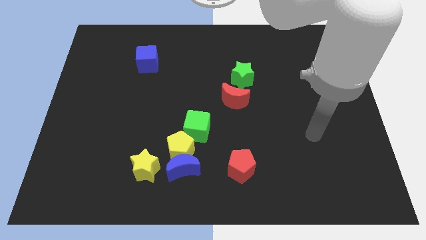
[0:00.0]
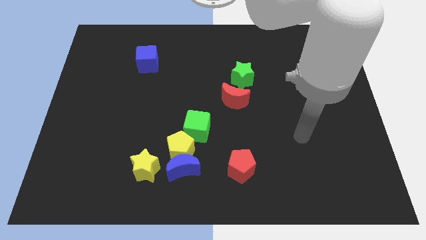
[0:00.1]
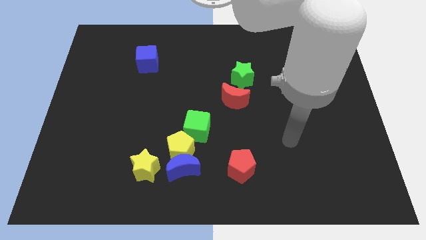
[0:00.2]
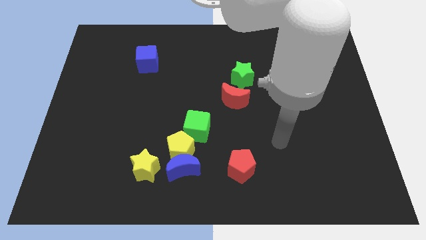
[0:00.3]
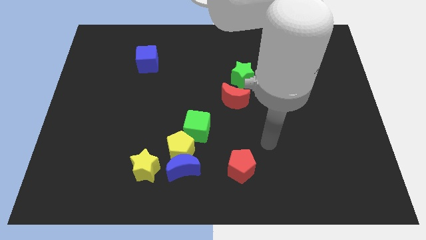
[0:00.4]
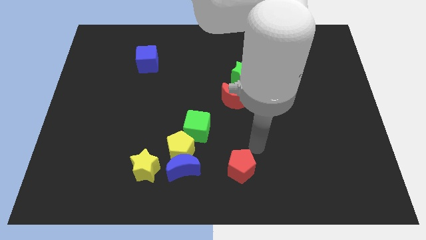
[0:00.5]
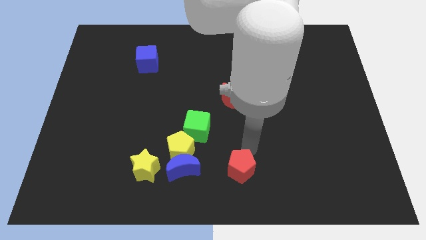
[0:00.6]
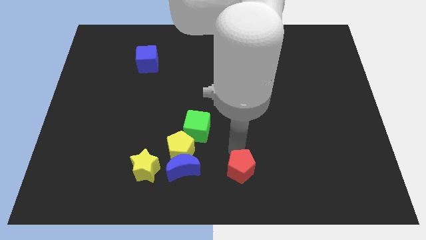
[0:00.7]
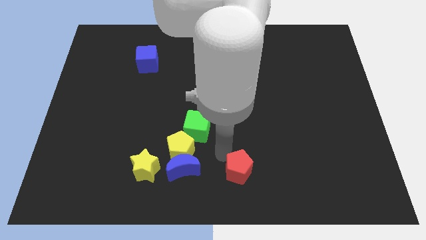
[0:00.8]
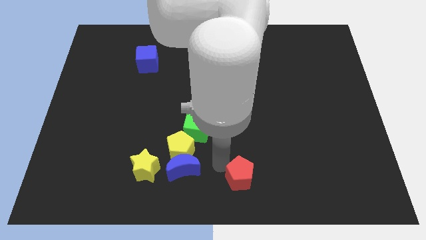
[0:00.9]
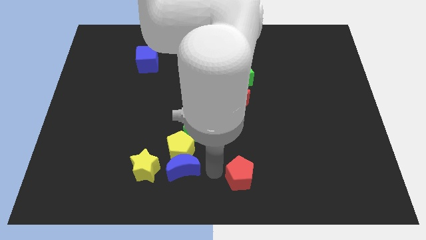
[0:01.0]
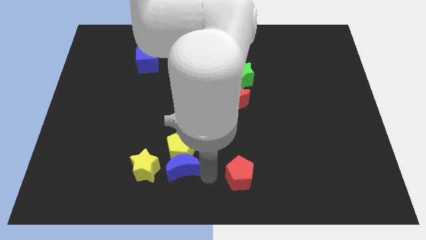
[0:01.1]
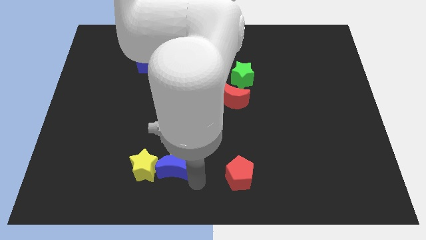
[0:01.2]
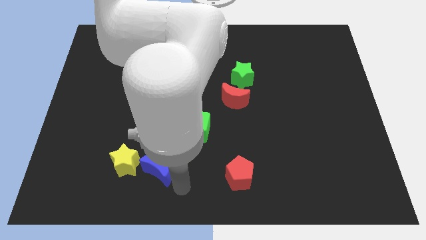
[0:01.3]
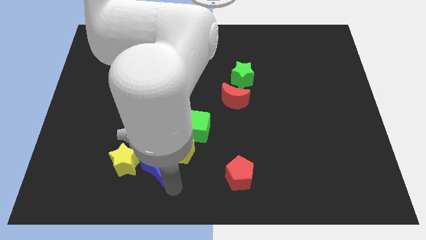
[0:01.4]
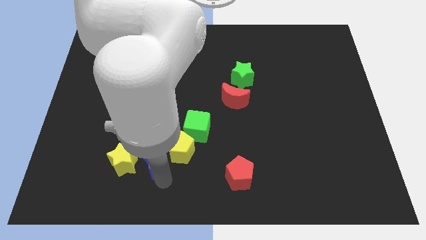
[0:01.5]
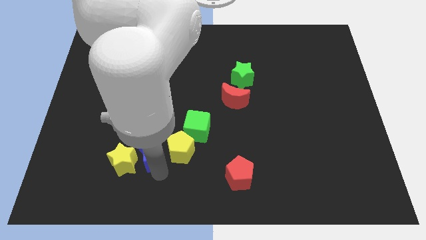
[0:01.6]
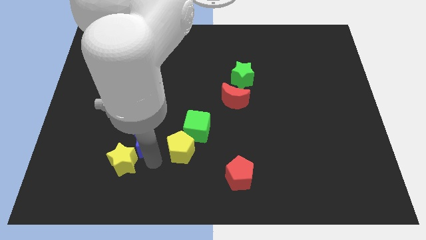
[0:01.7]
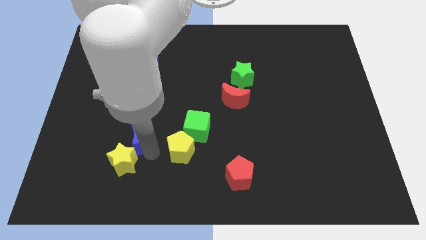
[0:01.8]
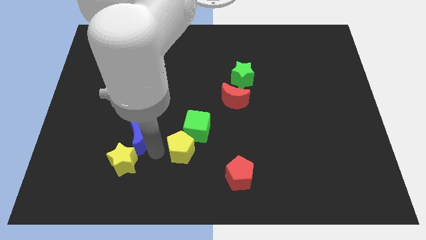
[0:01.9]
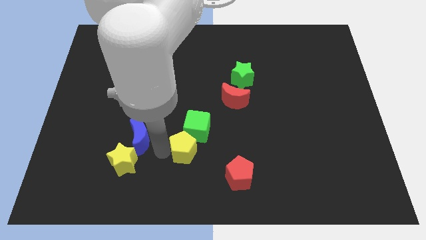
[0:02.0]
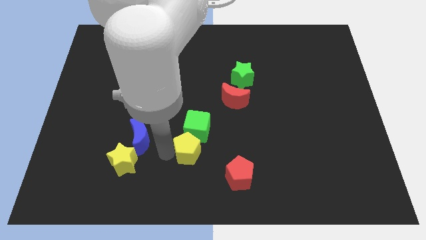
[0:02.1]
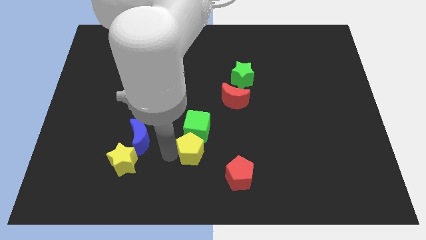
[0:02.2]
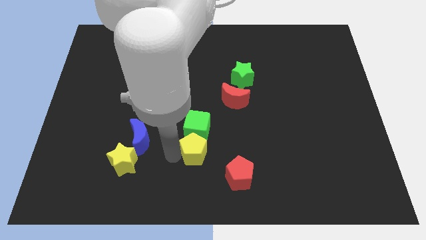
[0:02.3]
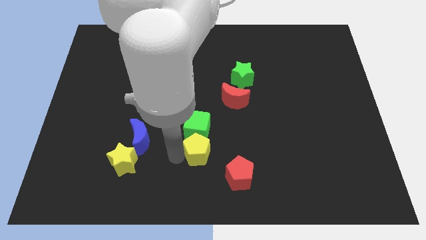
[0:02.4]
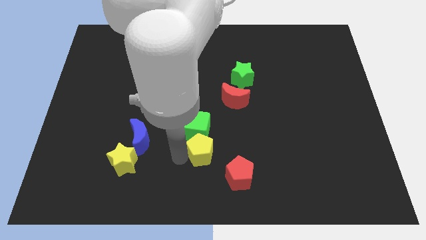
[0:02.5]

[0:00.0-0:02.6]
move the yellow pentagon away from the clump

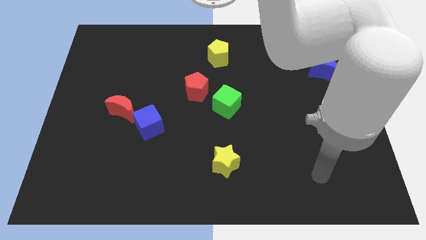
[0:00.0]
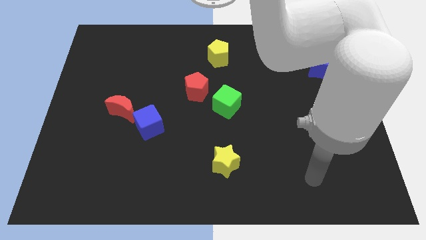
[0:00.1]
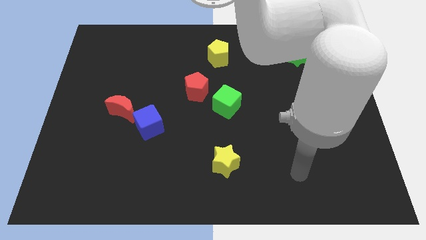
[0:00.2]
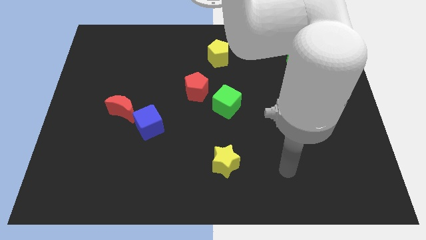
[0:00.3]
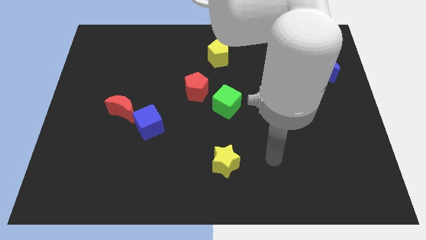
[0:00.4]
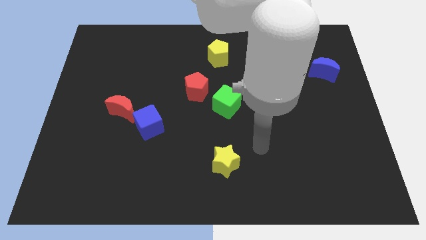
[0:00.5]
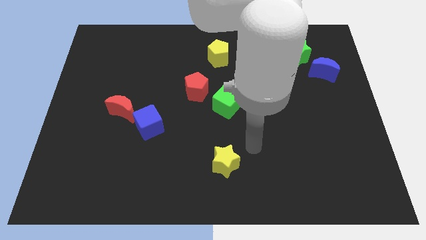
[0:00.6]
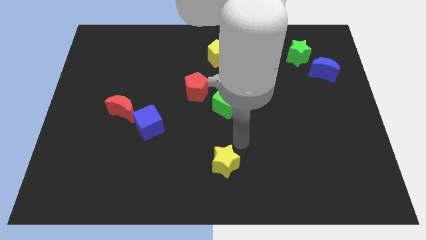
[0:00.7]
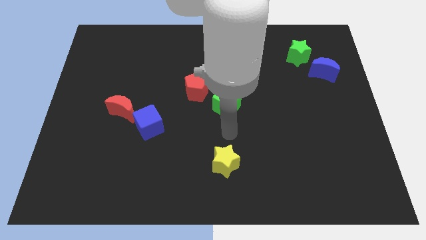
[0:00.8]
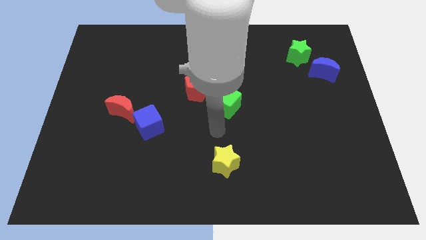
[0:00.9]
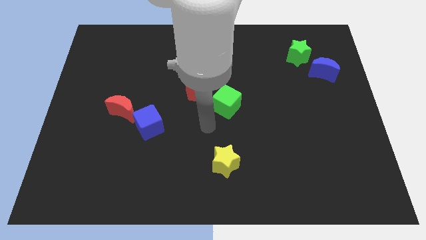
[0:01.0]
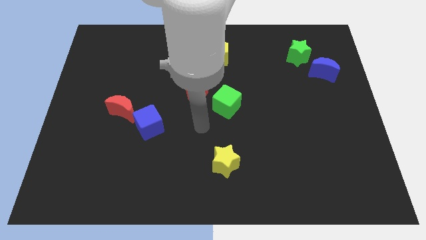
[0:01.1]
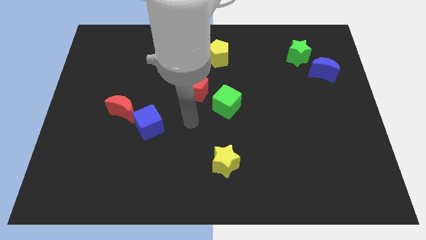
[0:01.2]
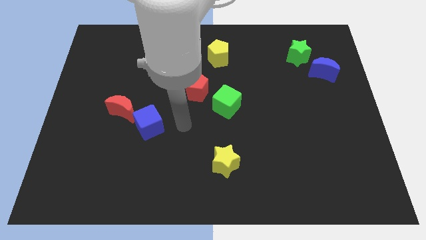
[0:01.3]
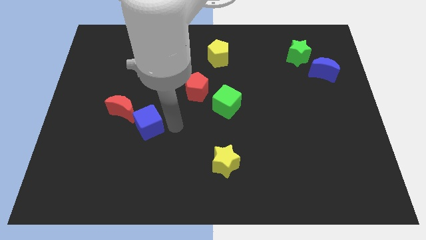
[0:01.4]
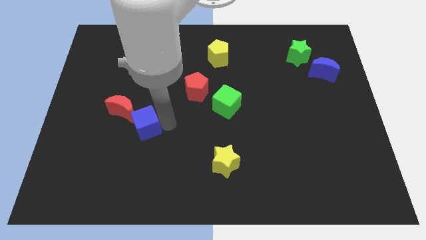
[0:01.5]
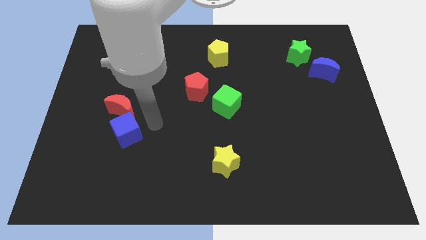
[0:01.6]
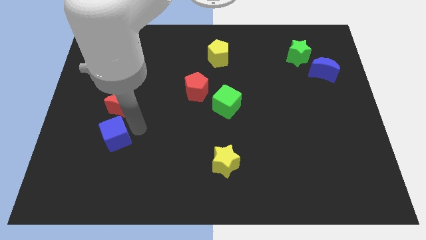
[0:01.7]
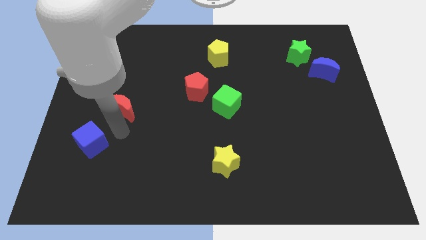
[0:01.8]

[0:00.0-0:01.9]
separate the red moon from the blue cube

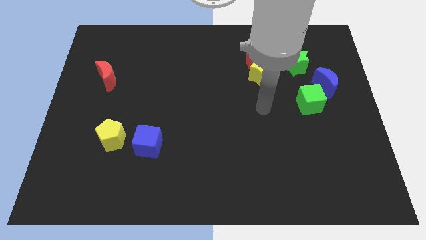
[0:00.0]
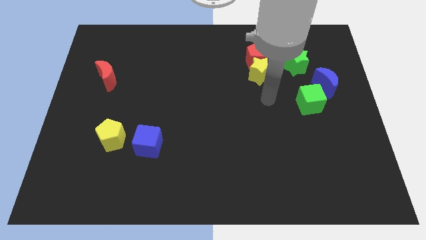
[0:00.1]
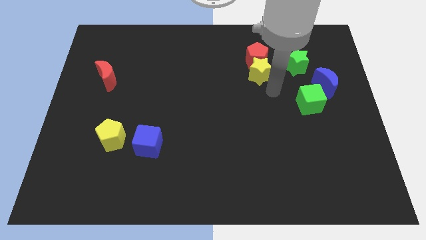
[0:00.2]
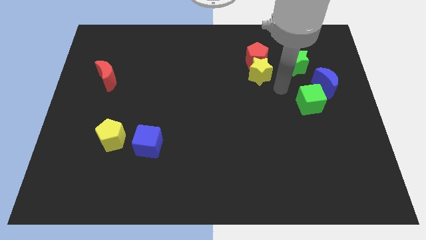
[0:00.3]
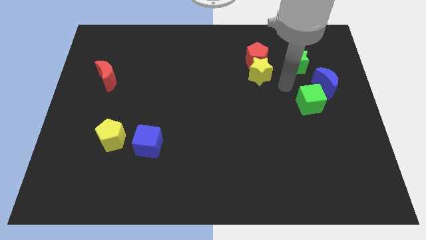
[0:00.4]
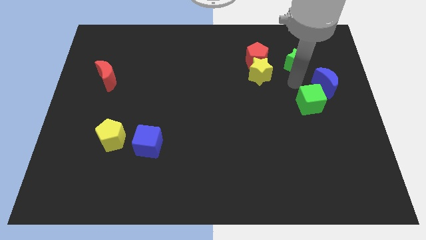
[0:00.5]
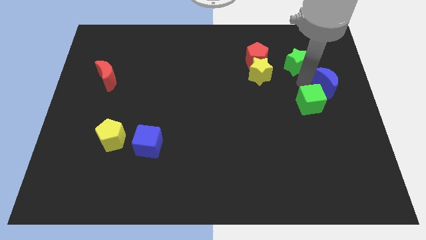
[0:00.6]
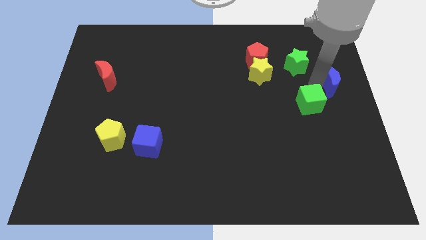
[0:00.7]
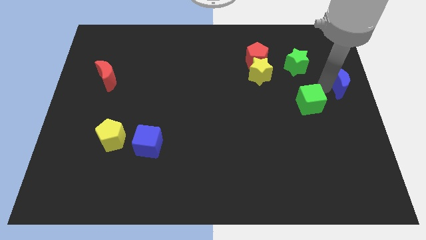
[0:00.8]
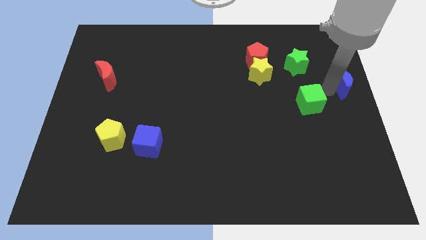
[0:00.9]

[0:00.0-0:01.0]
move the green cube away from the blue moon

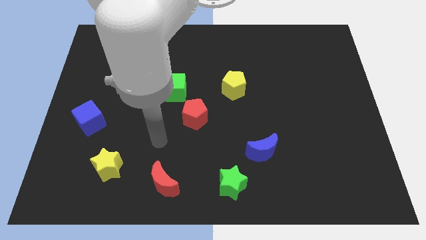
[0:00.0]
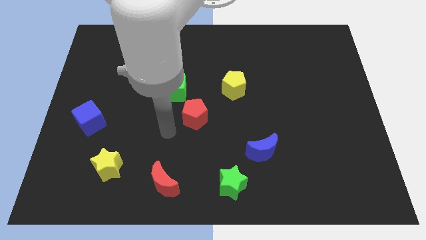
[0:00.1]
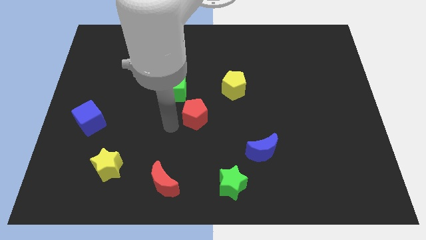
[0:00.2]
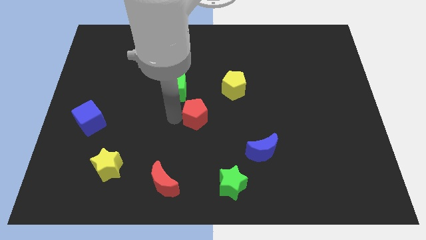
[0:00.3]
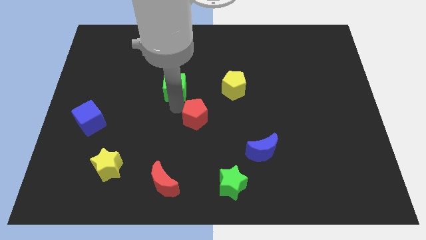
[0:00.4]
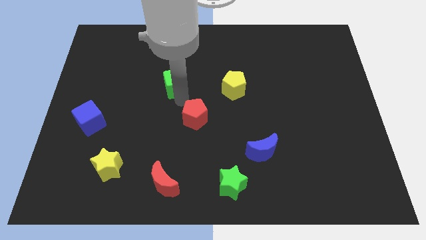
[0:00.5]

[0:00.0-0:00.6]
pull the red pentagon apart from the green cube

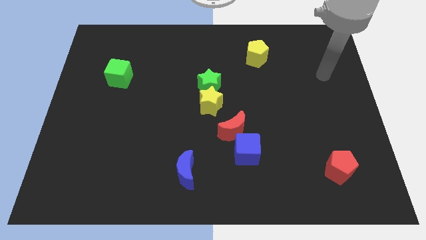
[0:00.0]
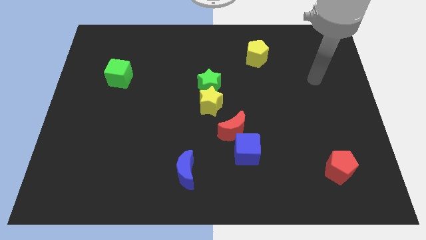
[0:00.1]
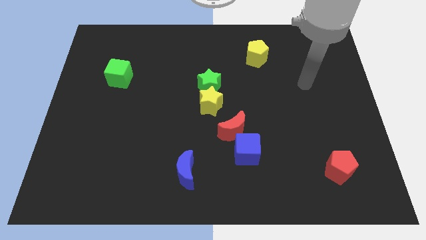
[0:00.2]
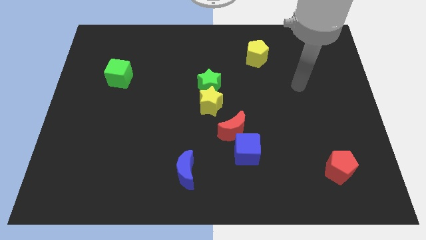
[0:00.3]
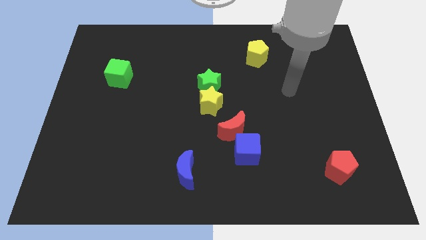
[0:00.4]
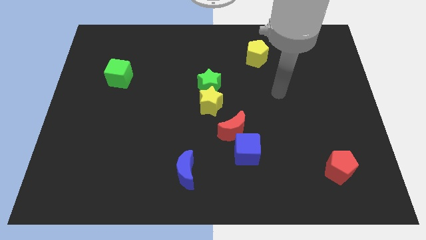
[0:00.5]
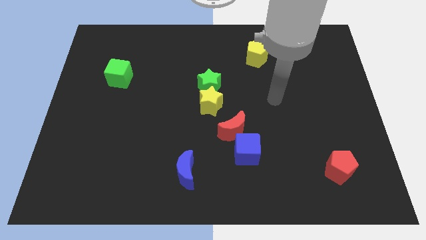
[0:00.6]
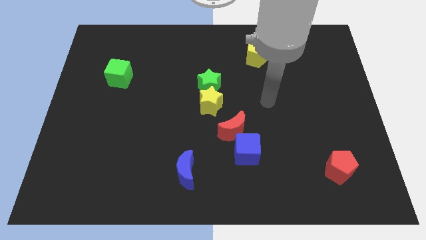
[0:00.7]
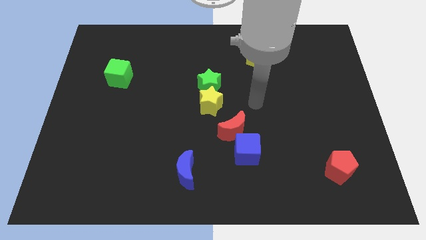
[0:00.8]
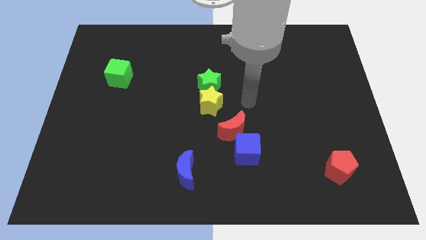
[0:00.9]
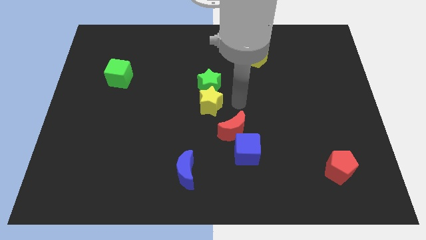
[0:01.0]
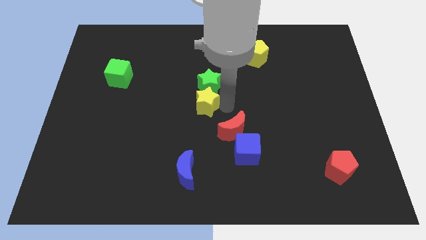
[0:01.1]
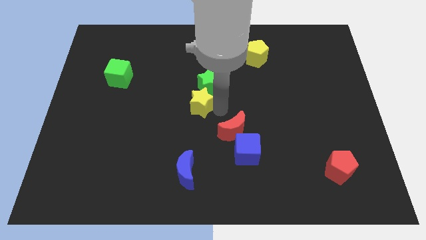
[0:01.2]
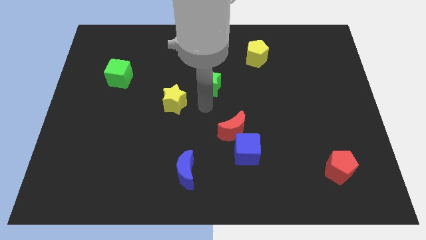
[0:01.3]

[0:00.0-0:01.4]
move the green star away from the yellow star

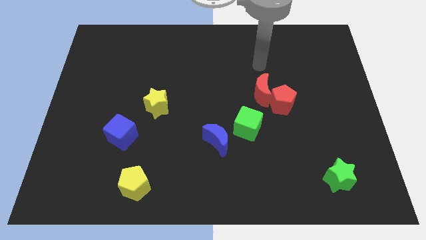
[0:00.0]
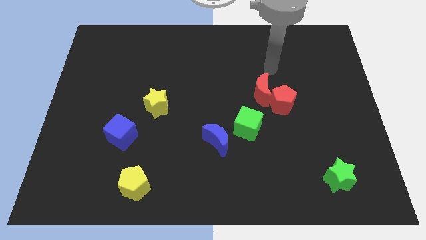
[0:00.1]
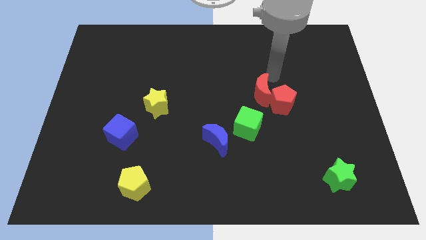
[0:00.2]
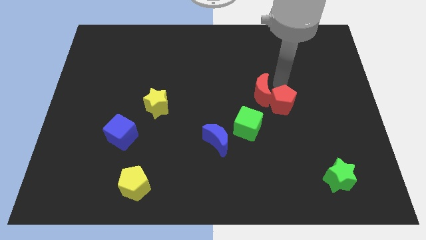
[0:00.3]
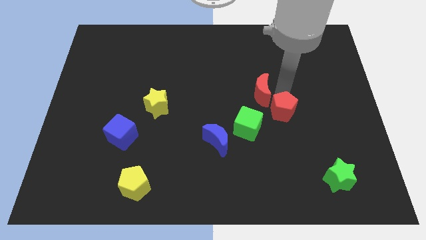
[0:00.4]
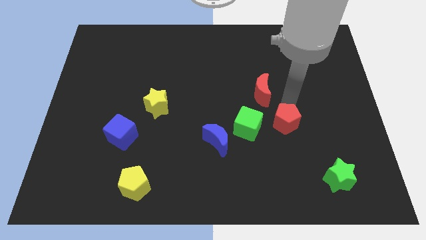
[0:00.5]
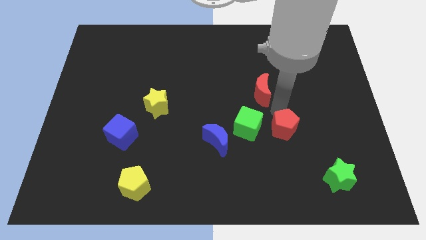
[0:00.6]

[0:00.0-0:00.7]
move the red moon away from the red pentagon

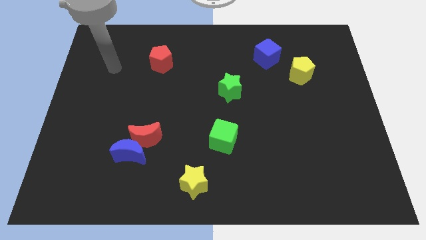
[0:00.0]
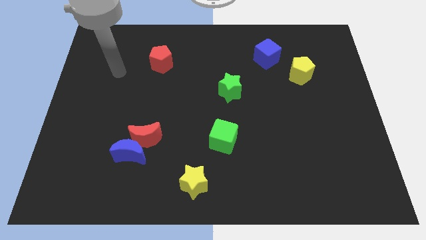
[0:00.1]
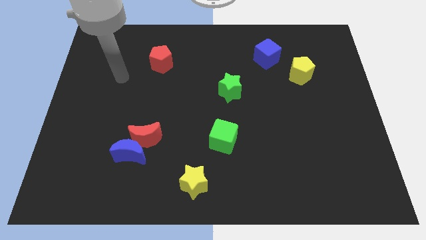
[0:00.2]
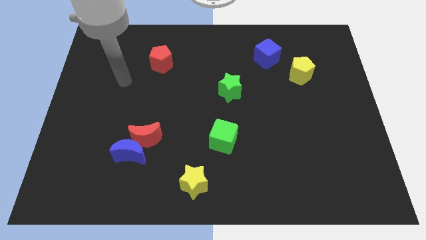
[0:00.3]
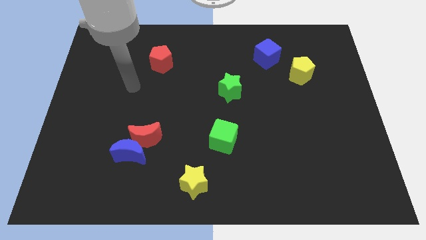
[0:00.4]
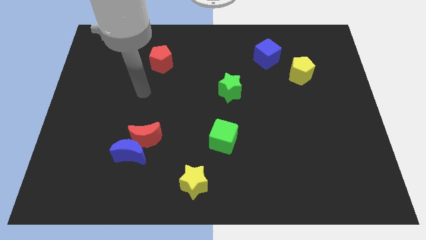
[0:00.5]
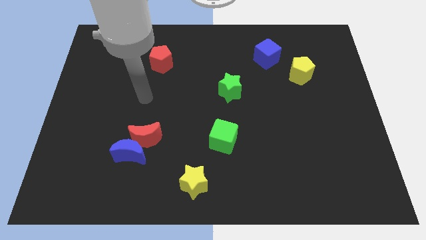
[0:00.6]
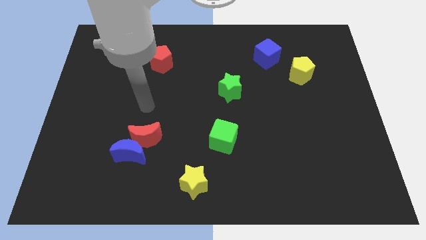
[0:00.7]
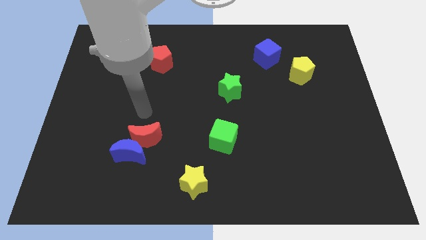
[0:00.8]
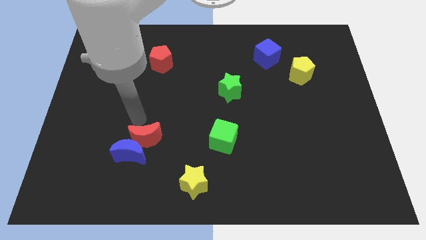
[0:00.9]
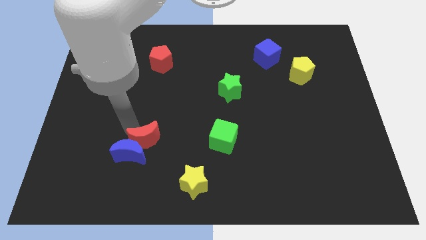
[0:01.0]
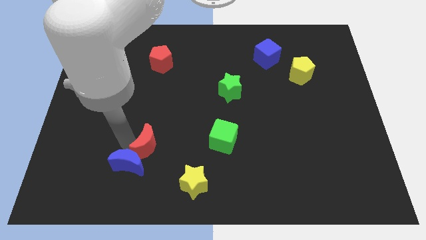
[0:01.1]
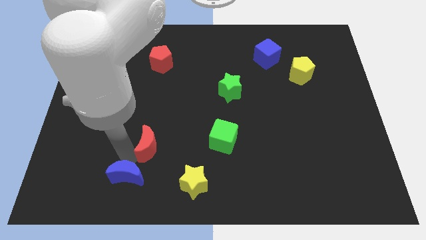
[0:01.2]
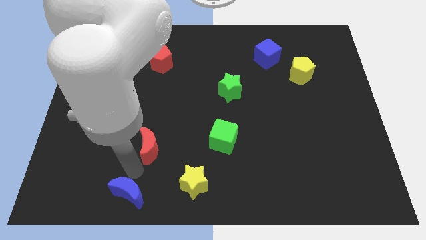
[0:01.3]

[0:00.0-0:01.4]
move the red moon away from the blue moon
